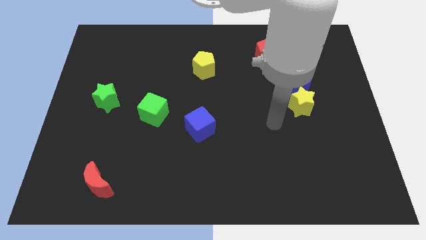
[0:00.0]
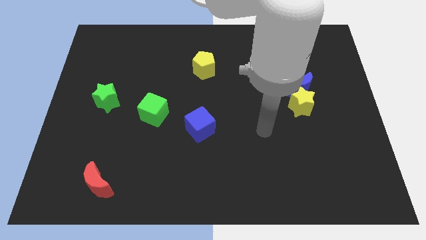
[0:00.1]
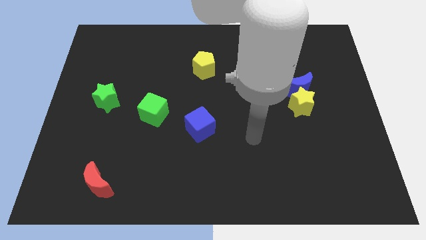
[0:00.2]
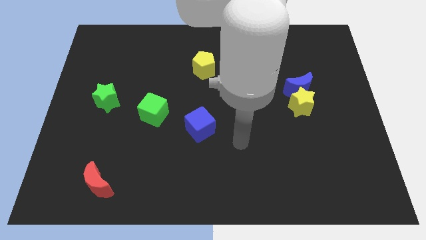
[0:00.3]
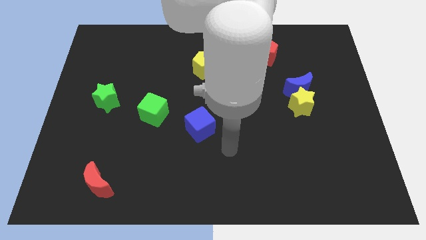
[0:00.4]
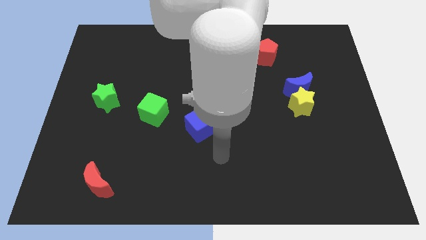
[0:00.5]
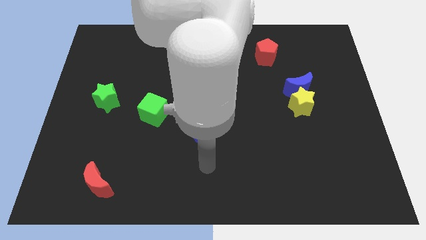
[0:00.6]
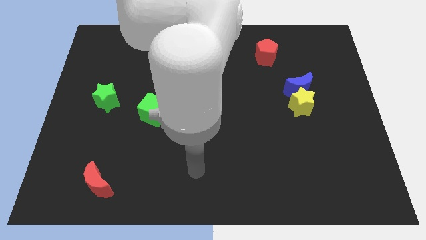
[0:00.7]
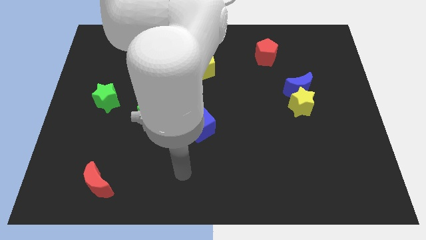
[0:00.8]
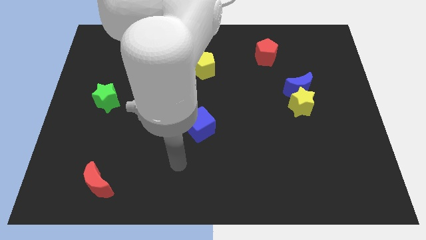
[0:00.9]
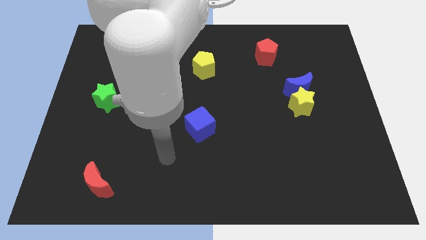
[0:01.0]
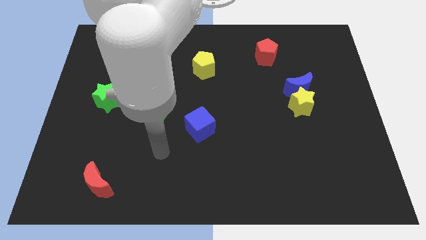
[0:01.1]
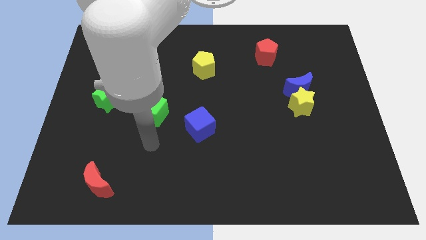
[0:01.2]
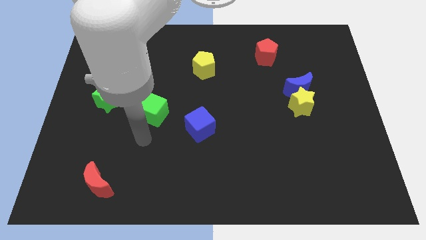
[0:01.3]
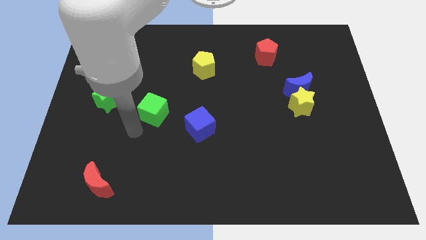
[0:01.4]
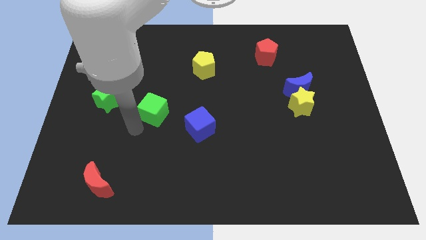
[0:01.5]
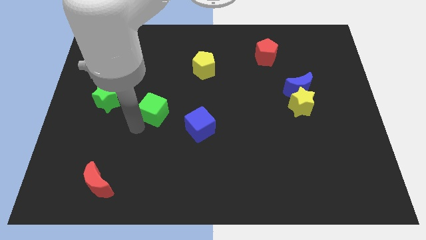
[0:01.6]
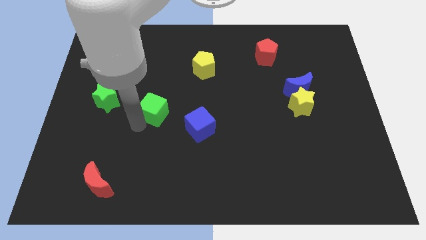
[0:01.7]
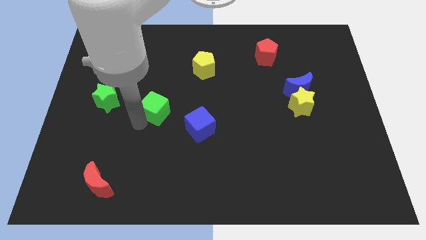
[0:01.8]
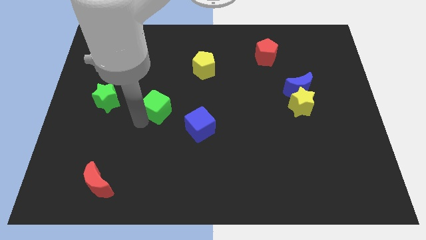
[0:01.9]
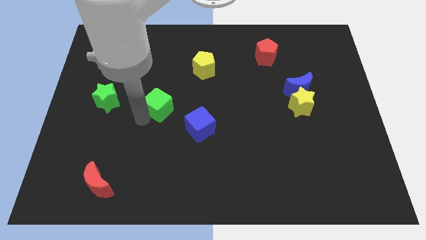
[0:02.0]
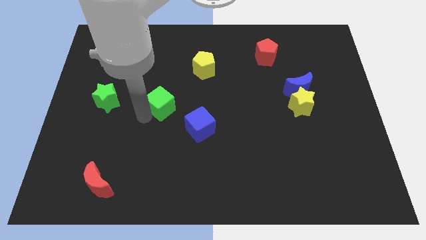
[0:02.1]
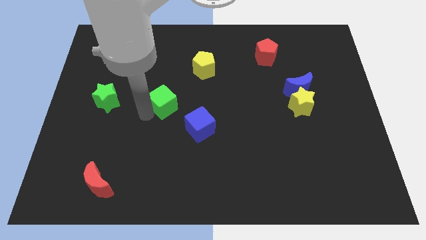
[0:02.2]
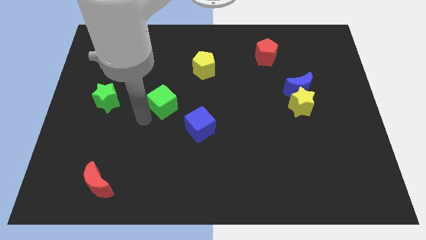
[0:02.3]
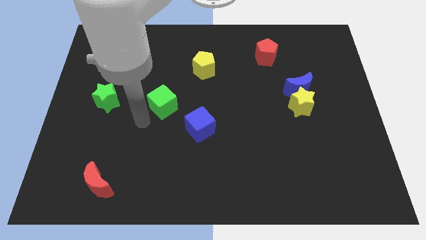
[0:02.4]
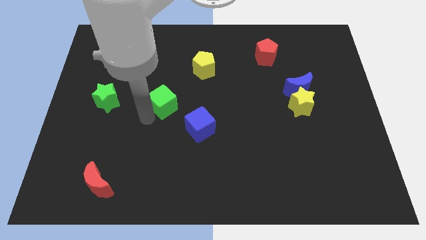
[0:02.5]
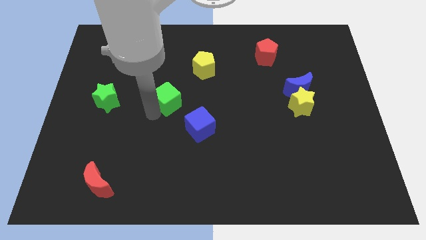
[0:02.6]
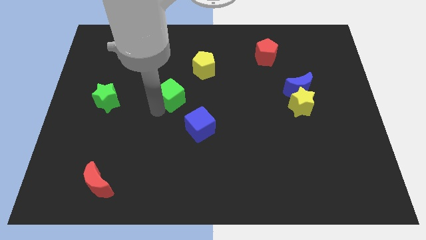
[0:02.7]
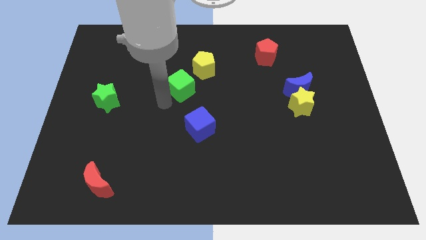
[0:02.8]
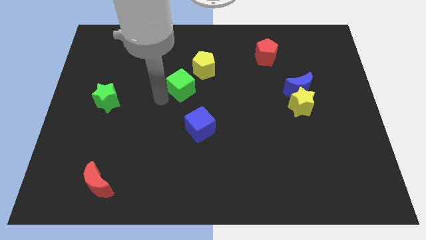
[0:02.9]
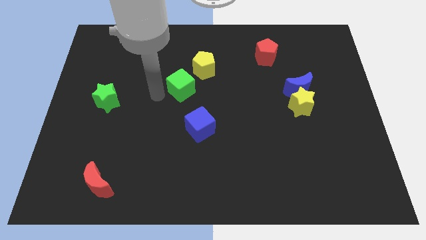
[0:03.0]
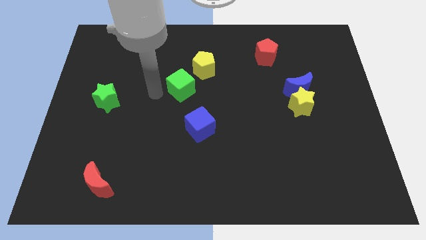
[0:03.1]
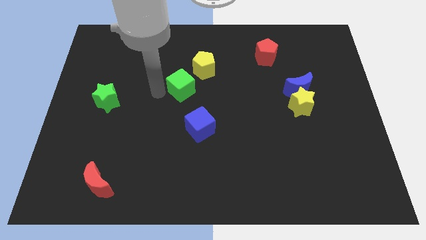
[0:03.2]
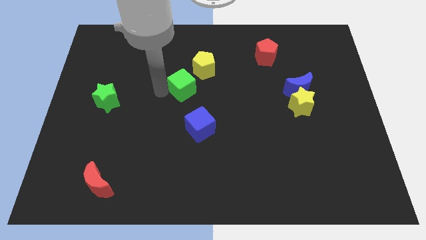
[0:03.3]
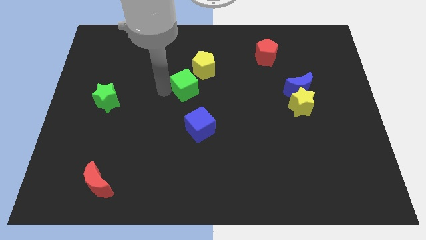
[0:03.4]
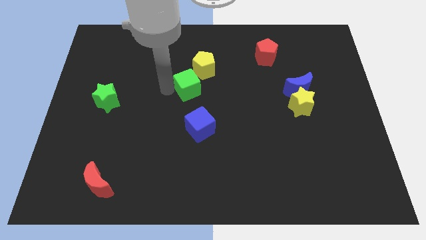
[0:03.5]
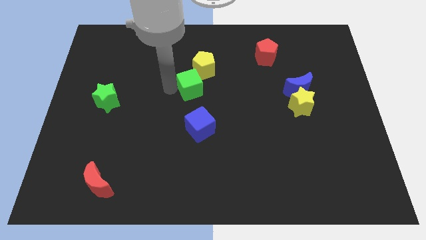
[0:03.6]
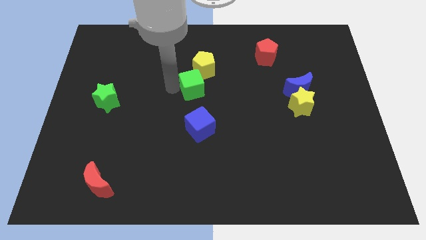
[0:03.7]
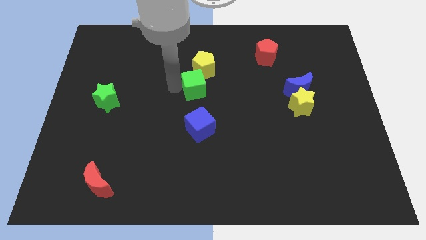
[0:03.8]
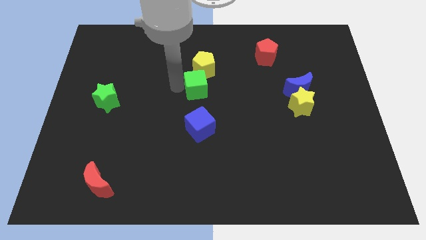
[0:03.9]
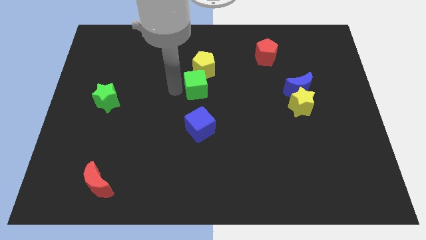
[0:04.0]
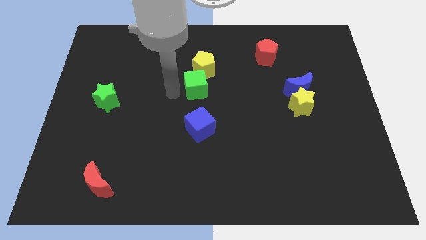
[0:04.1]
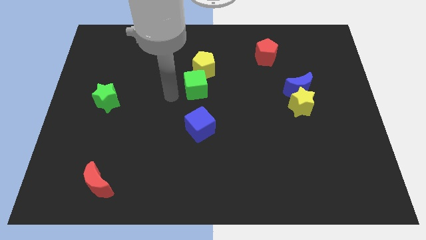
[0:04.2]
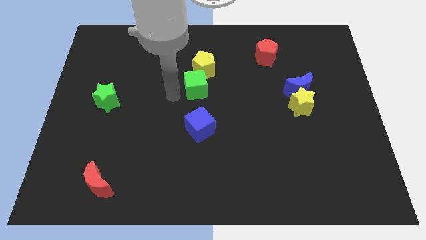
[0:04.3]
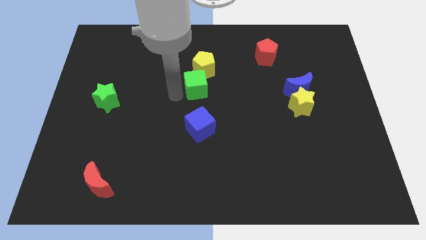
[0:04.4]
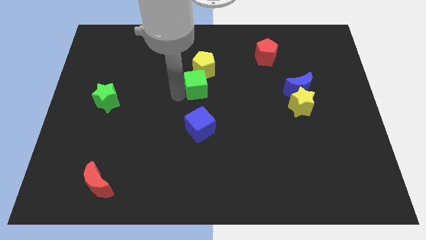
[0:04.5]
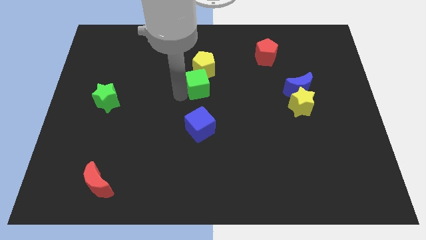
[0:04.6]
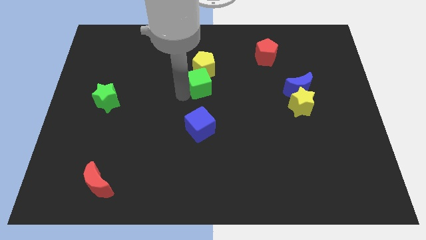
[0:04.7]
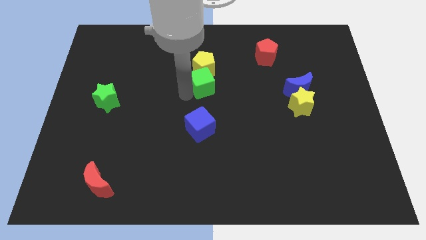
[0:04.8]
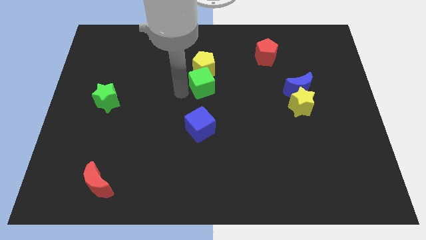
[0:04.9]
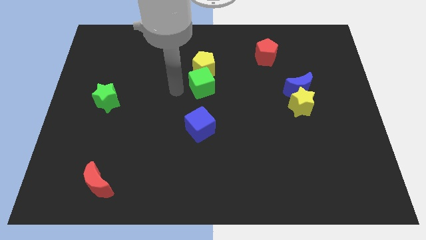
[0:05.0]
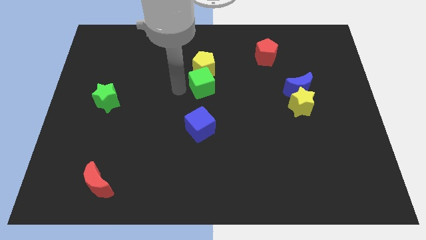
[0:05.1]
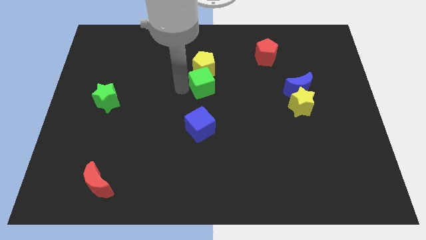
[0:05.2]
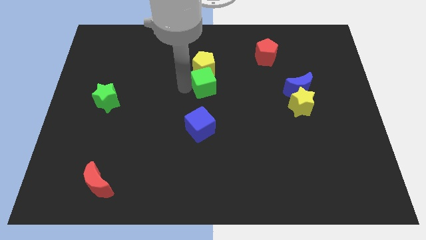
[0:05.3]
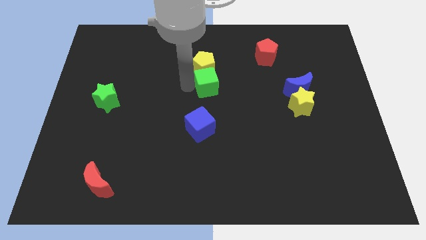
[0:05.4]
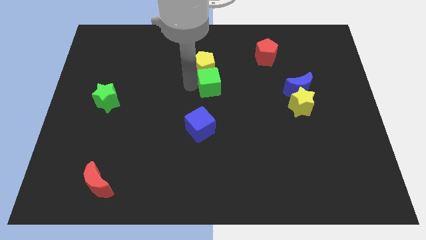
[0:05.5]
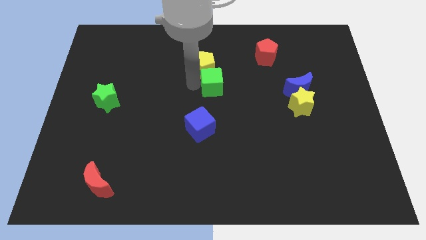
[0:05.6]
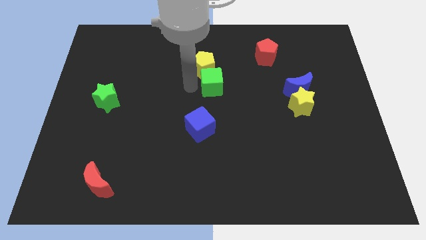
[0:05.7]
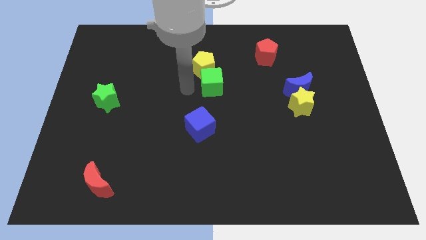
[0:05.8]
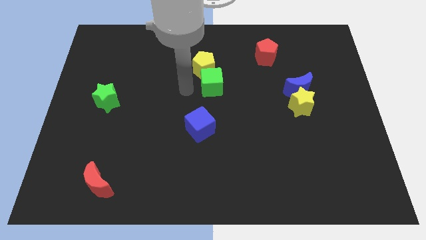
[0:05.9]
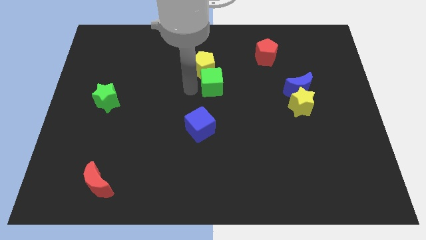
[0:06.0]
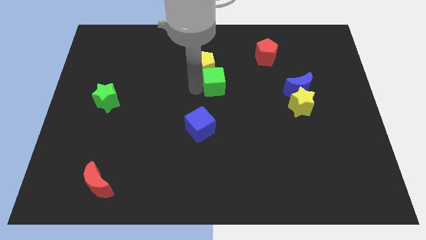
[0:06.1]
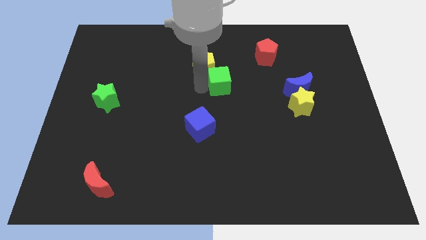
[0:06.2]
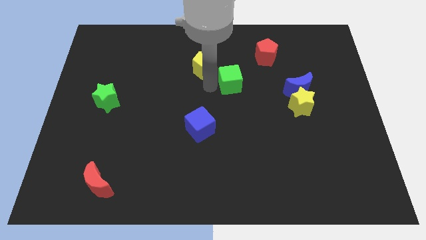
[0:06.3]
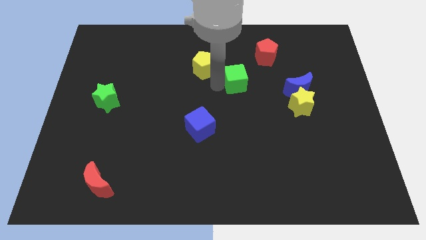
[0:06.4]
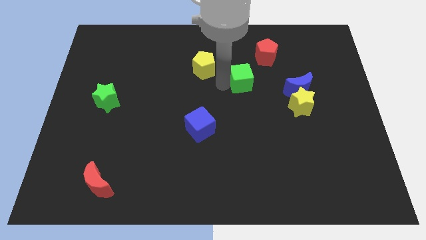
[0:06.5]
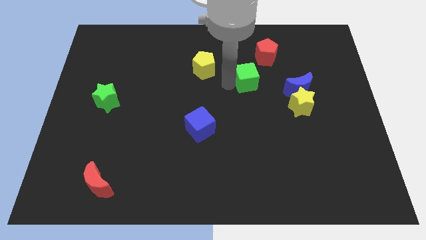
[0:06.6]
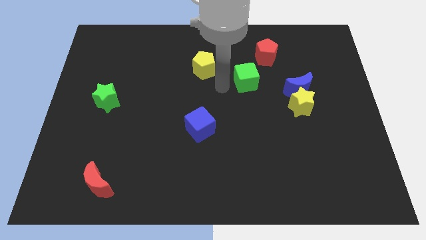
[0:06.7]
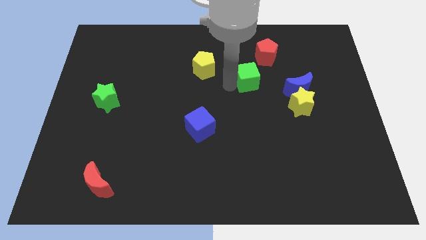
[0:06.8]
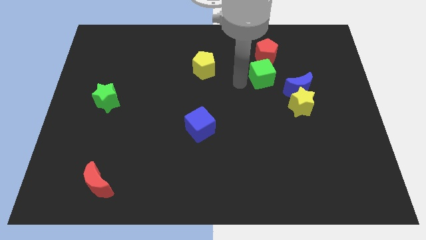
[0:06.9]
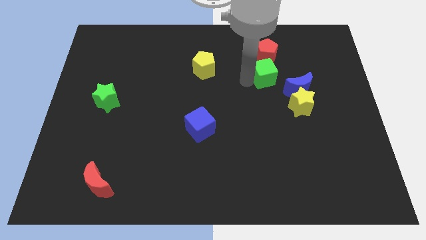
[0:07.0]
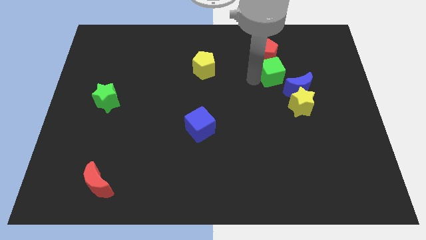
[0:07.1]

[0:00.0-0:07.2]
move the green cube diagonally down and to the right of the red pentagon
